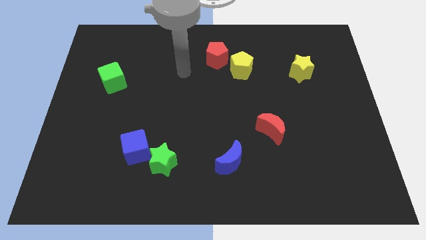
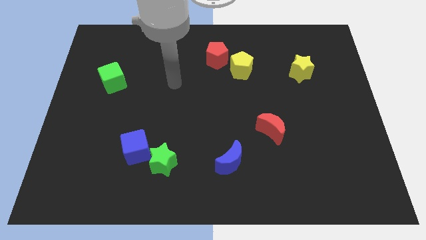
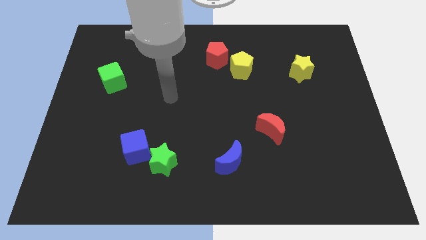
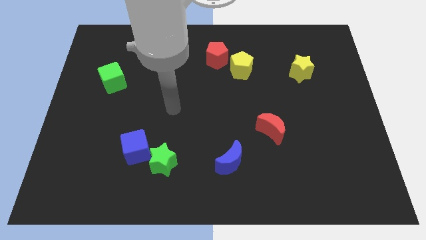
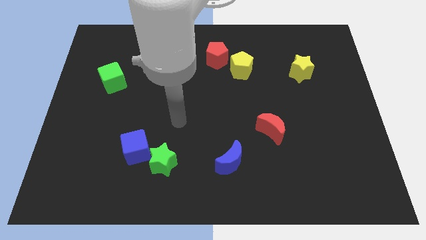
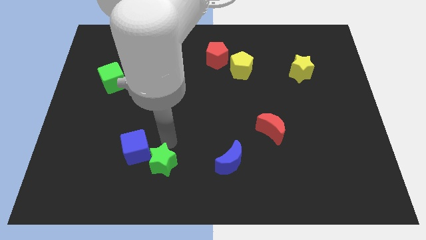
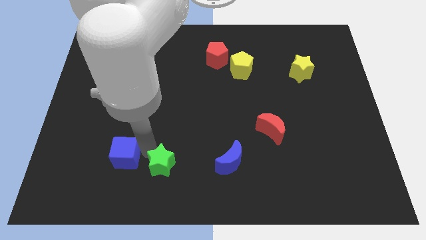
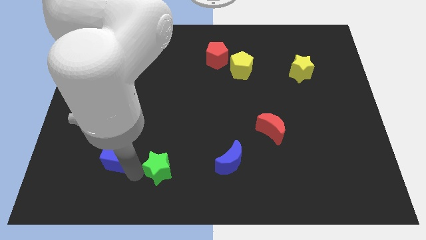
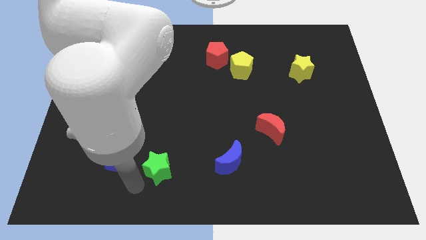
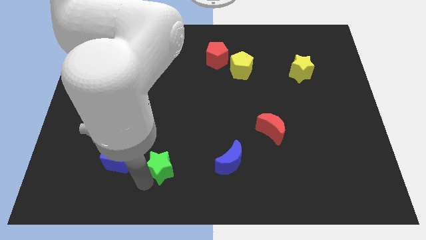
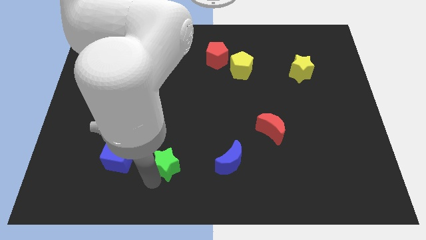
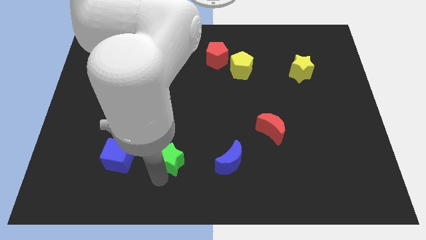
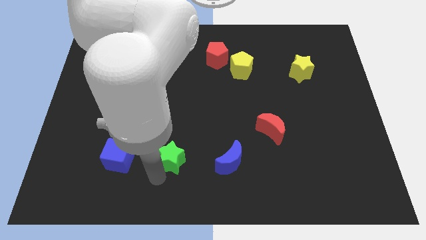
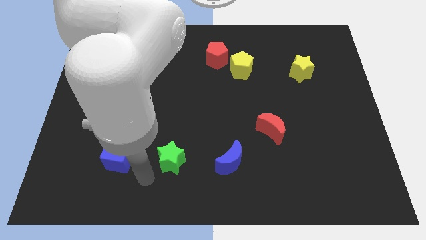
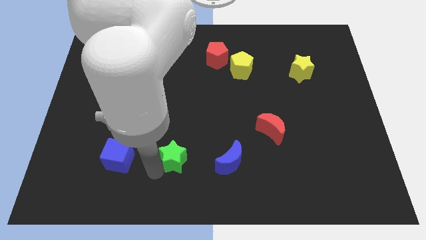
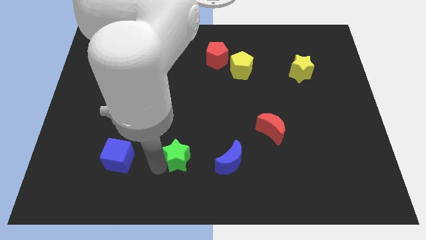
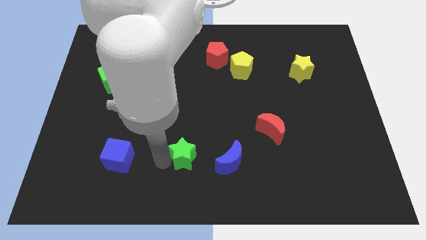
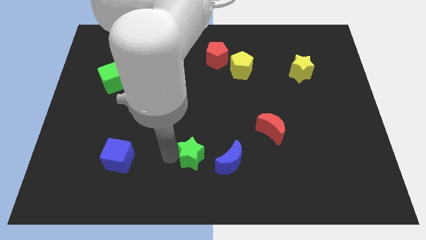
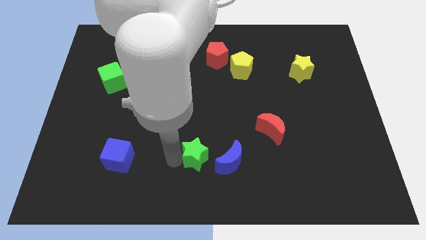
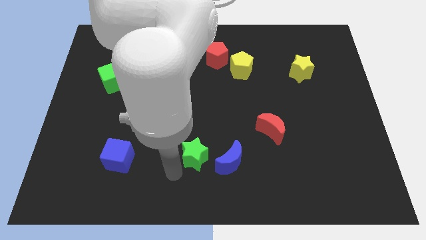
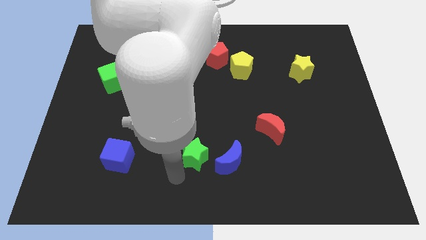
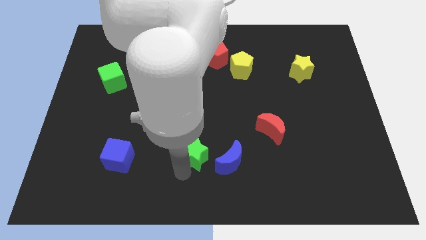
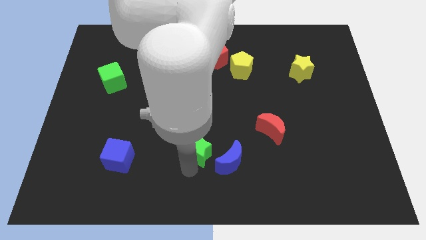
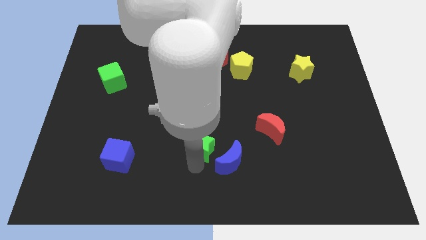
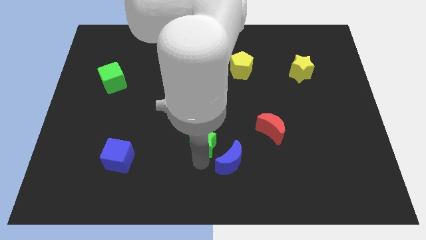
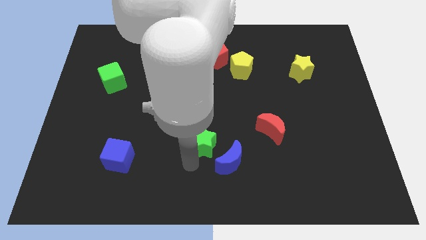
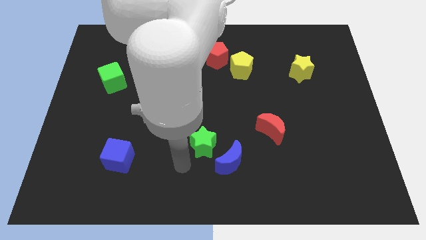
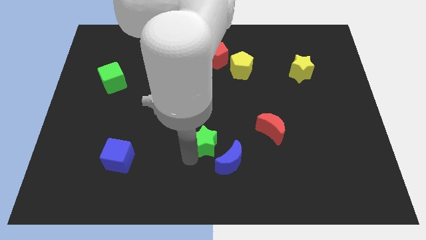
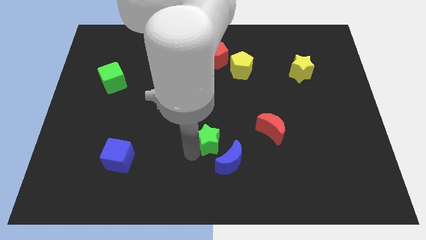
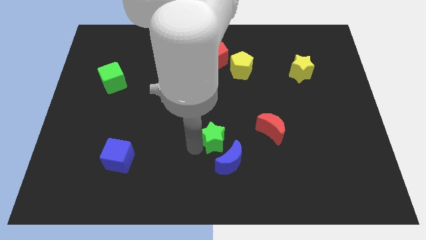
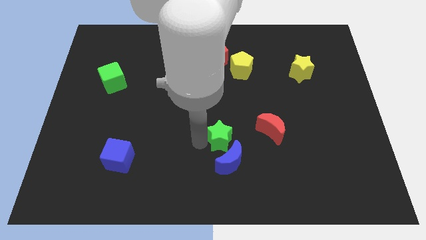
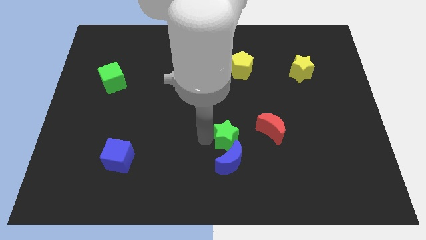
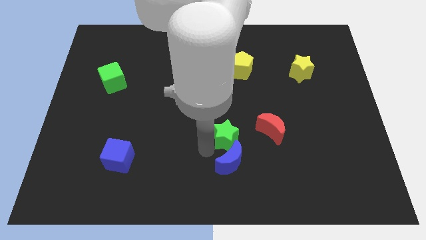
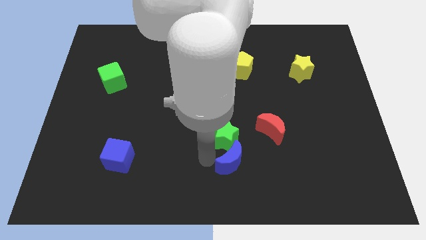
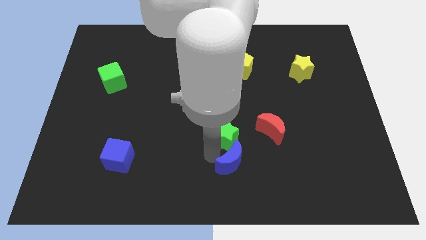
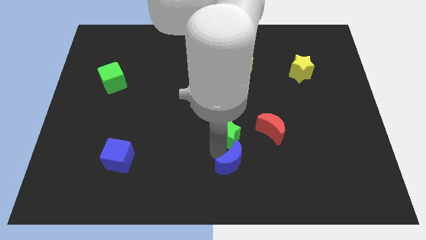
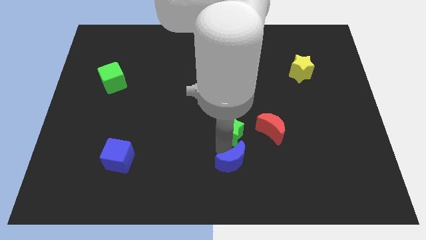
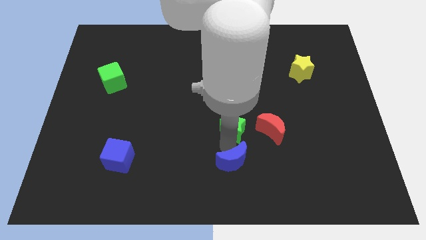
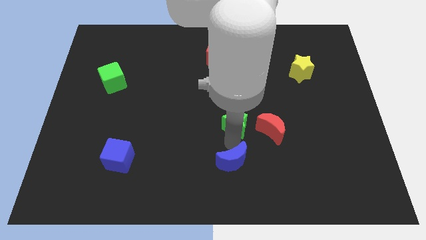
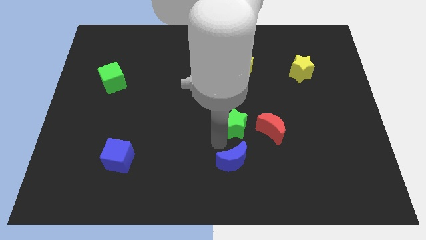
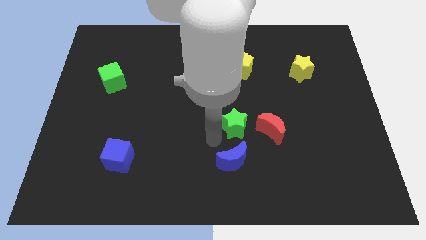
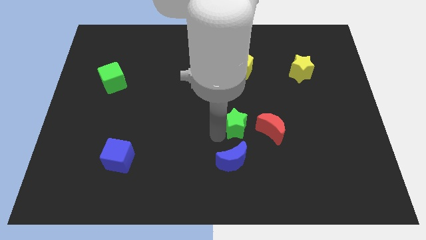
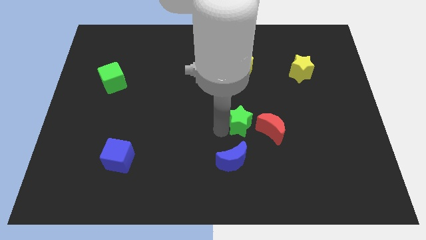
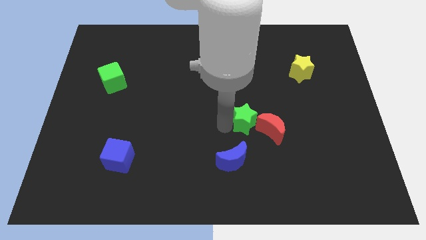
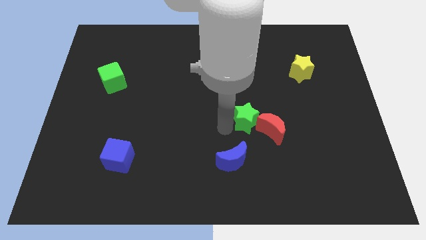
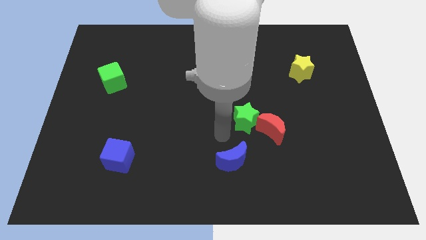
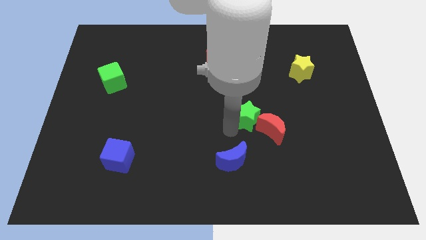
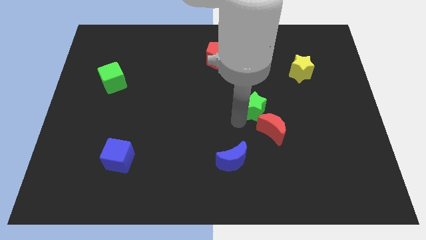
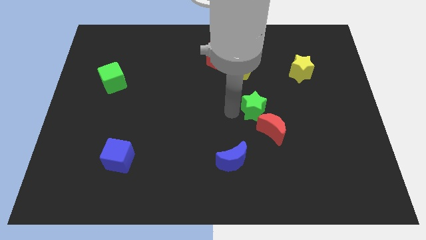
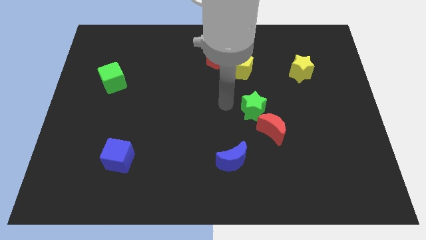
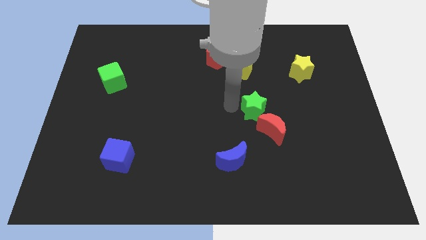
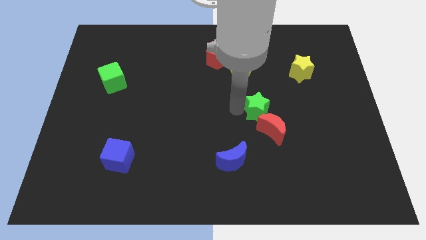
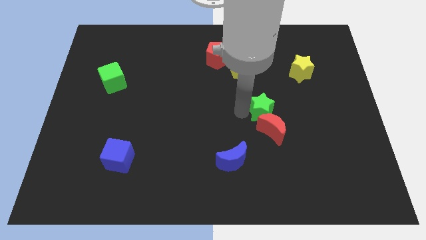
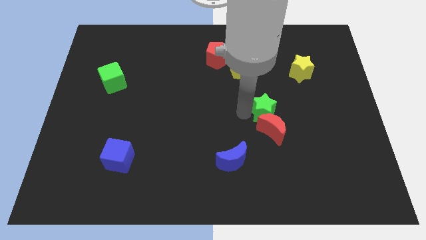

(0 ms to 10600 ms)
move the green star to the top right of the red moon

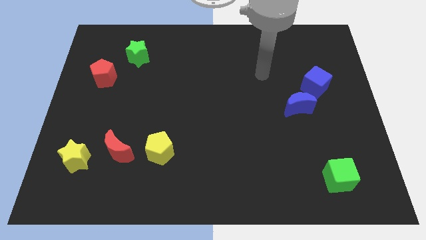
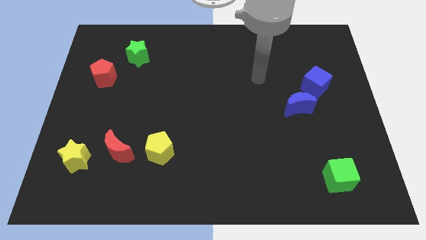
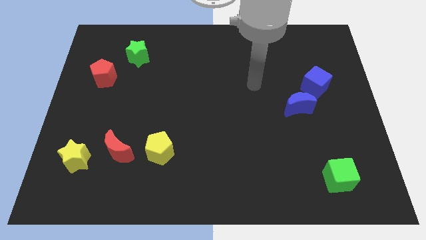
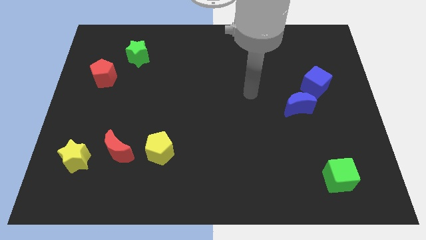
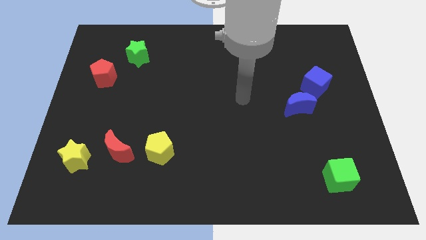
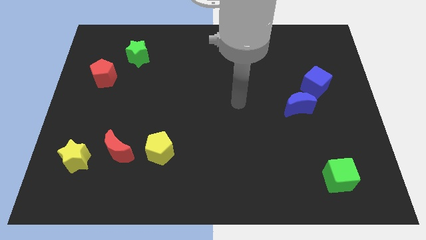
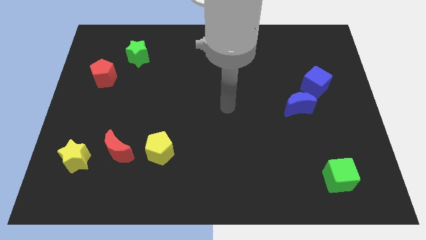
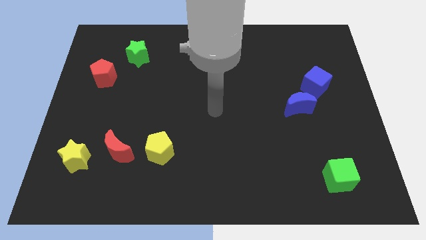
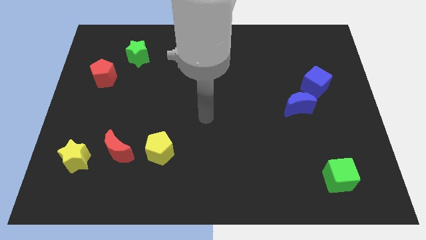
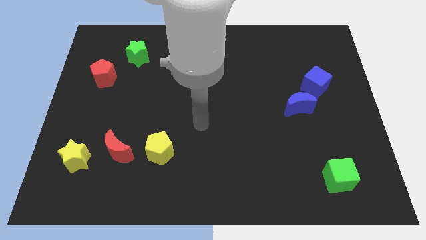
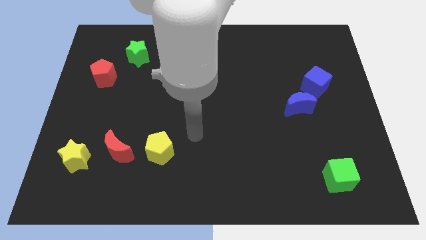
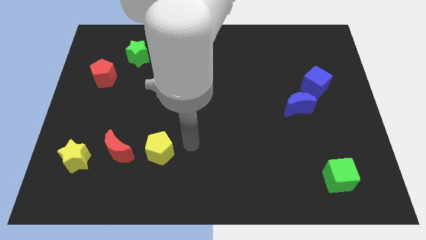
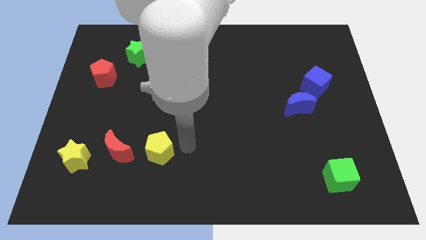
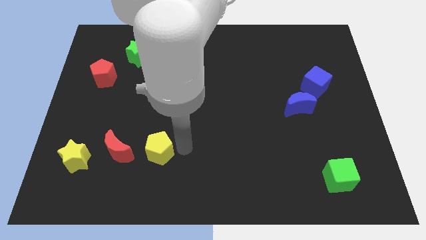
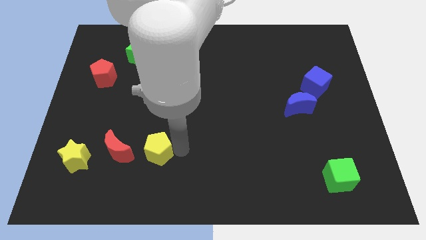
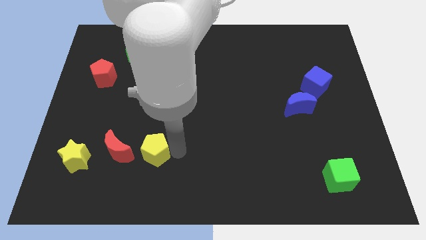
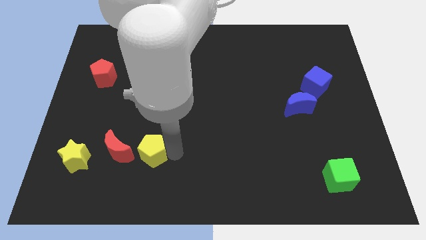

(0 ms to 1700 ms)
put the yellow pentagon right of the yellow star

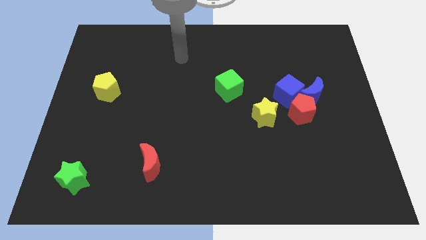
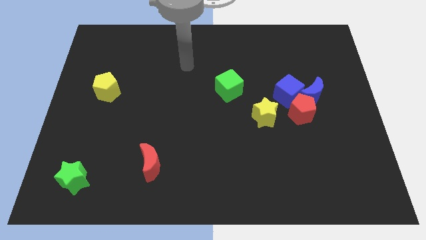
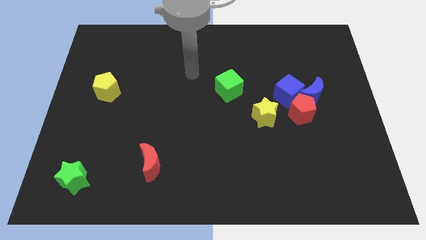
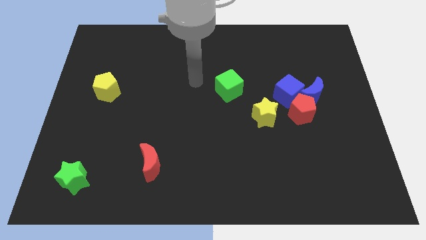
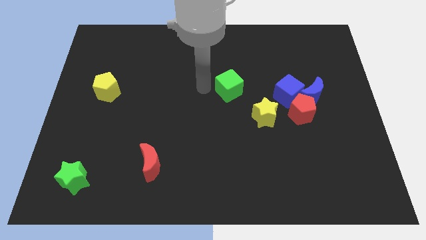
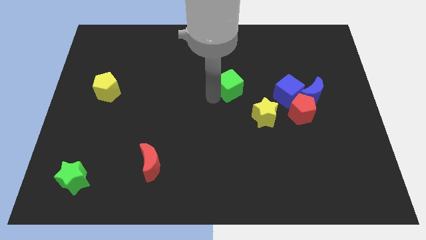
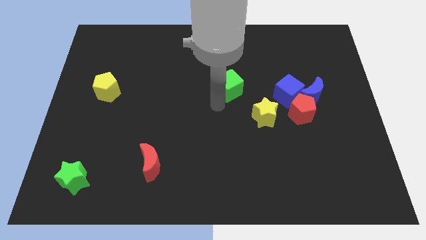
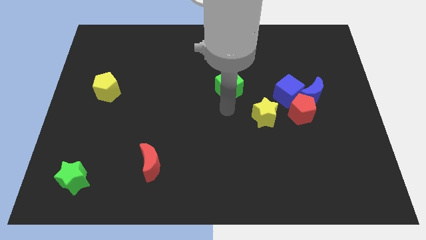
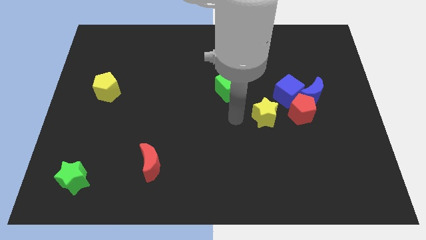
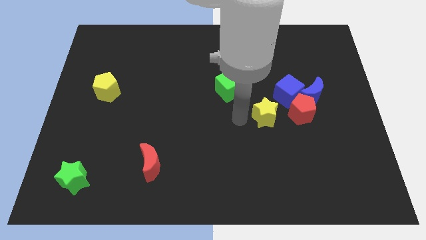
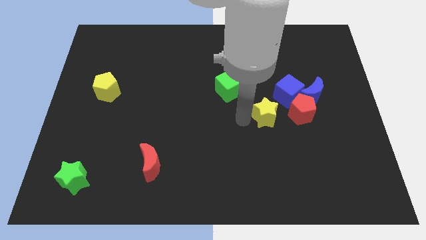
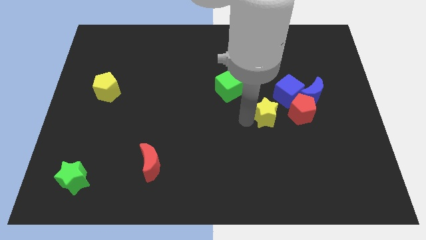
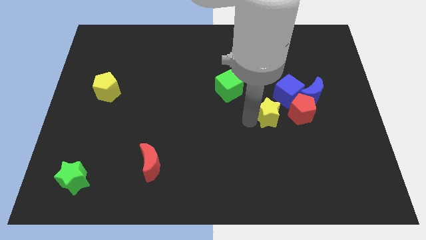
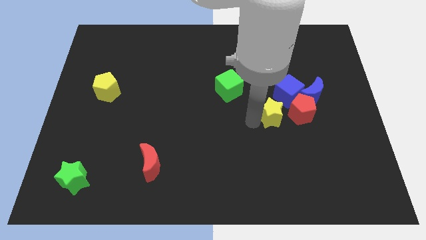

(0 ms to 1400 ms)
move the yellow star to the bottom left of the blue moon
